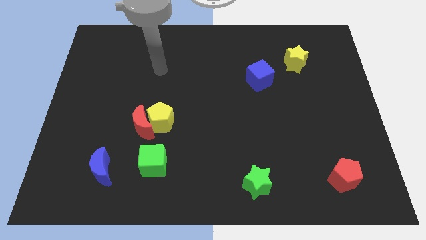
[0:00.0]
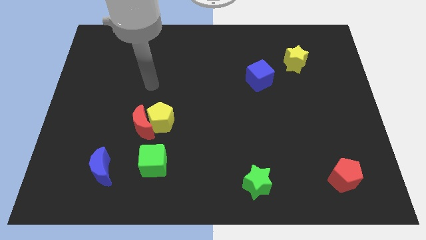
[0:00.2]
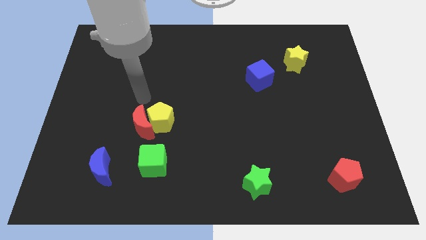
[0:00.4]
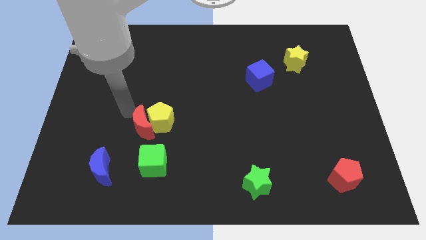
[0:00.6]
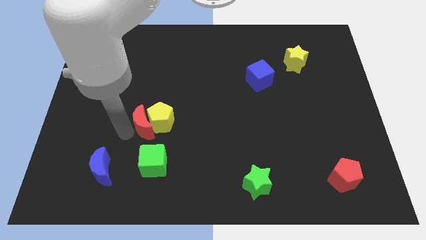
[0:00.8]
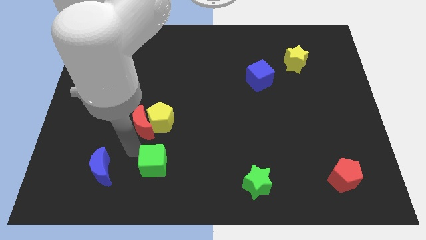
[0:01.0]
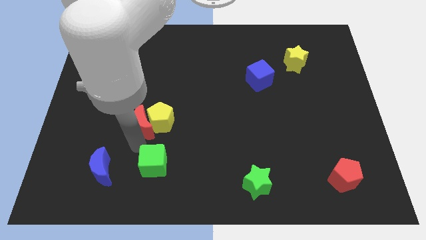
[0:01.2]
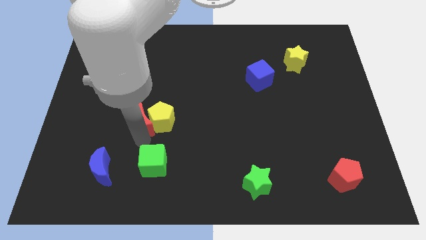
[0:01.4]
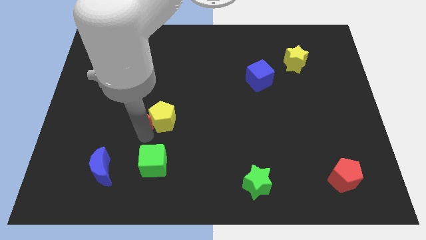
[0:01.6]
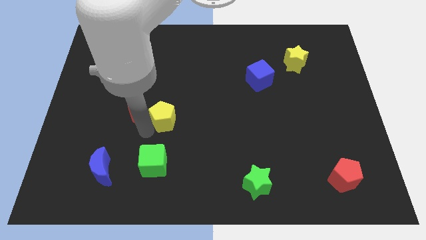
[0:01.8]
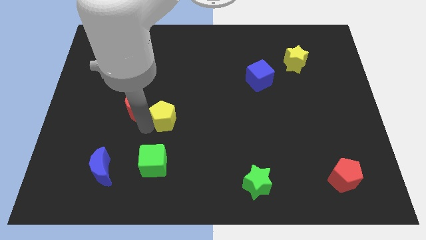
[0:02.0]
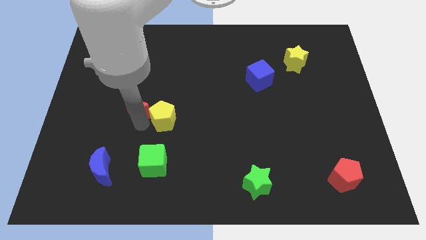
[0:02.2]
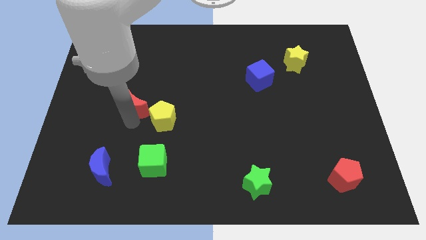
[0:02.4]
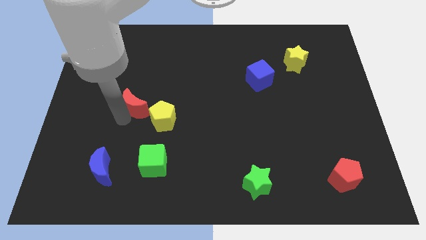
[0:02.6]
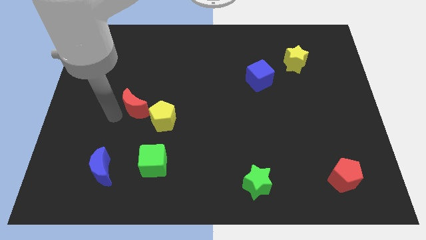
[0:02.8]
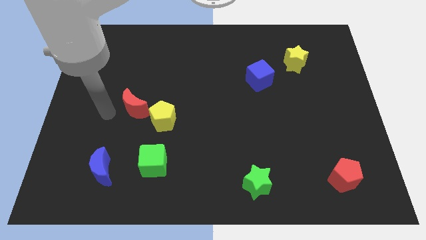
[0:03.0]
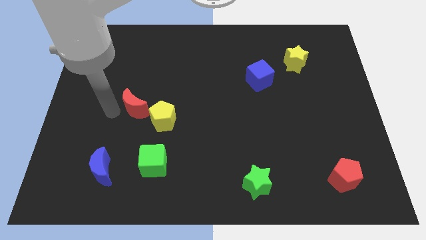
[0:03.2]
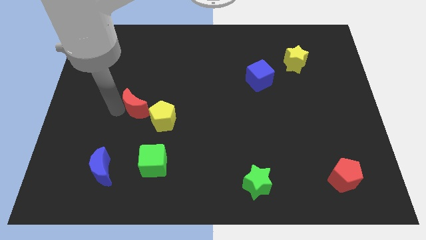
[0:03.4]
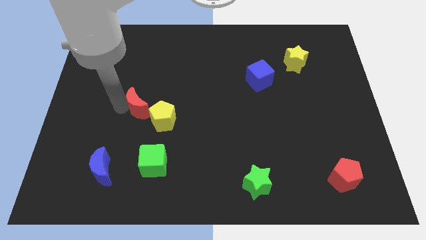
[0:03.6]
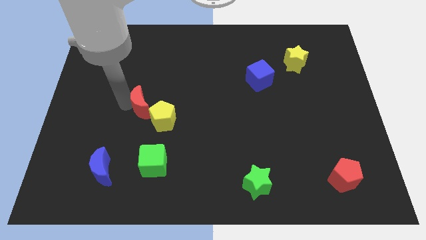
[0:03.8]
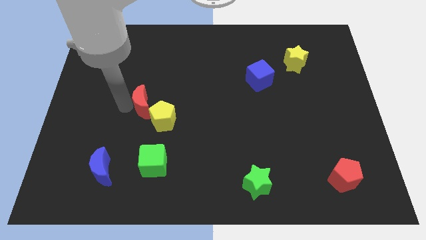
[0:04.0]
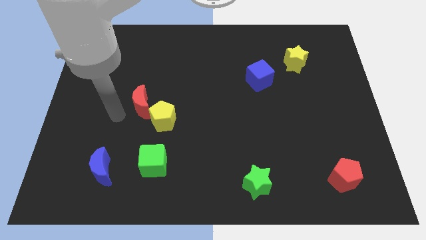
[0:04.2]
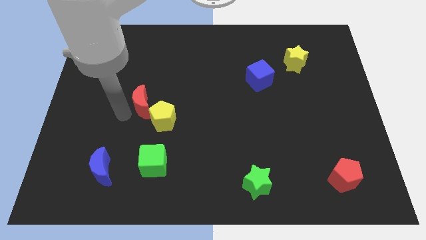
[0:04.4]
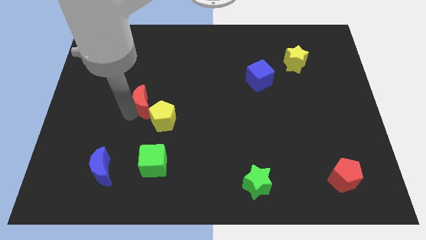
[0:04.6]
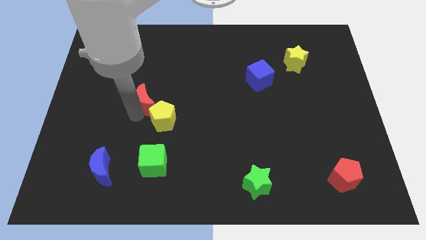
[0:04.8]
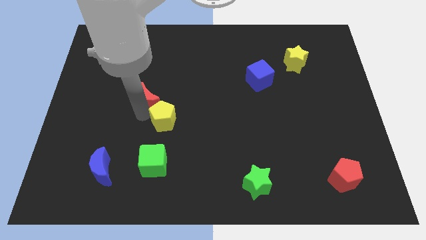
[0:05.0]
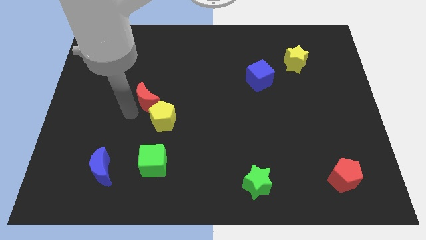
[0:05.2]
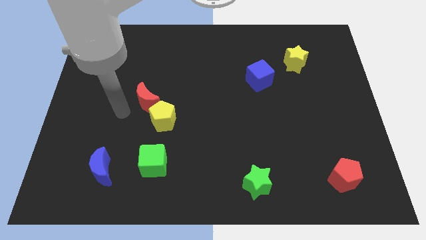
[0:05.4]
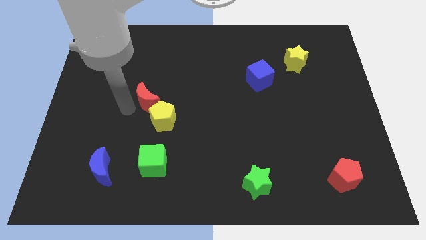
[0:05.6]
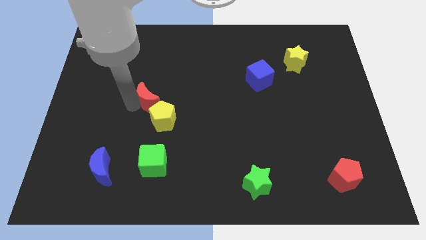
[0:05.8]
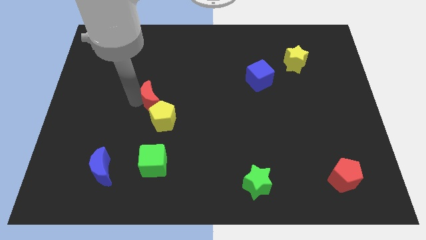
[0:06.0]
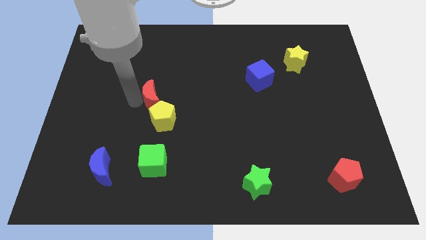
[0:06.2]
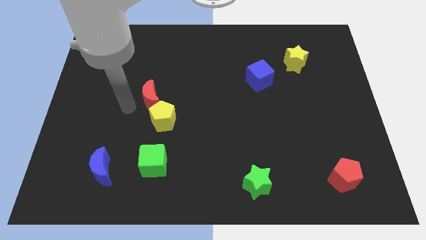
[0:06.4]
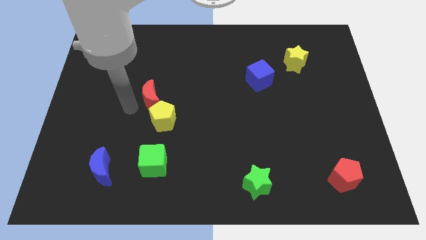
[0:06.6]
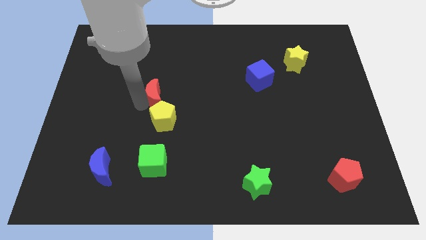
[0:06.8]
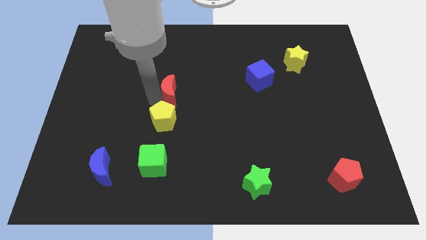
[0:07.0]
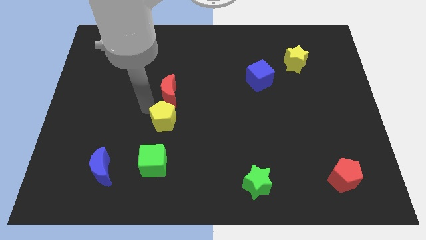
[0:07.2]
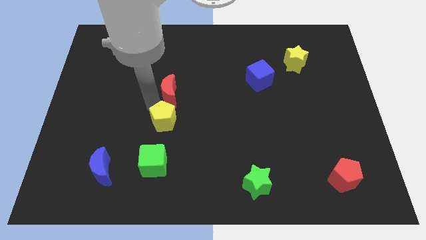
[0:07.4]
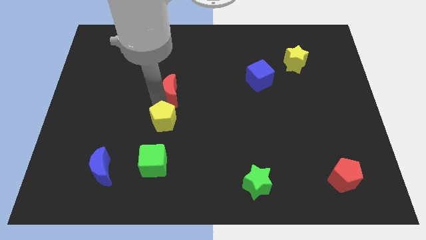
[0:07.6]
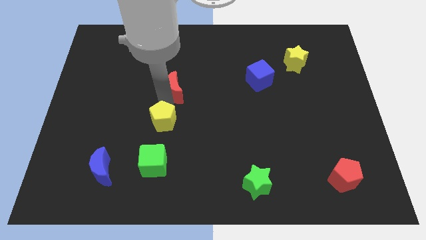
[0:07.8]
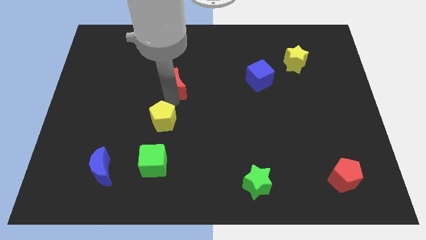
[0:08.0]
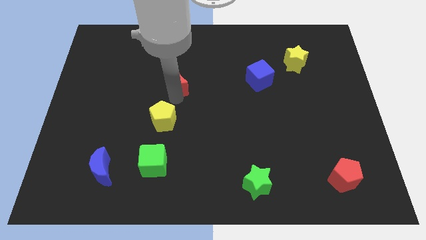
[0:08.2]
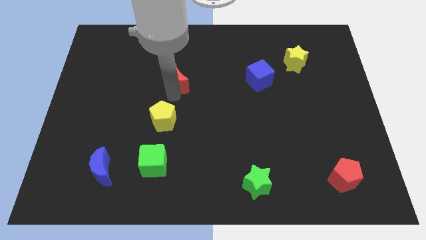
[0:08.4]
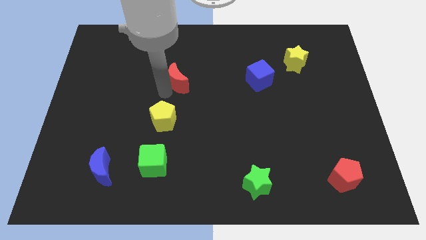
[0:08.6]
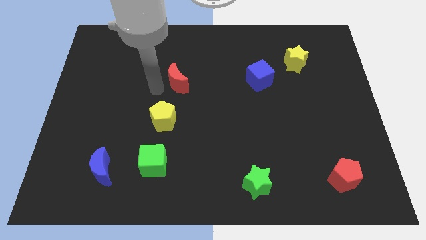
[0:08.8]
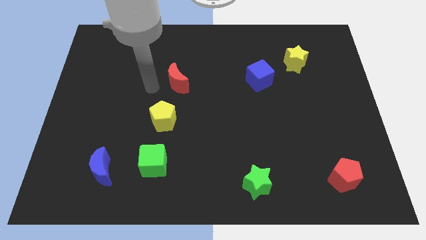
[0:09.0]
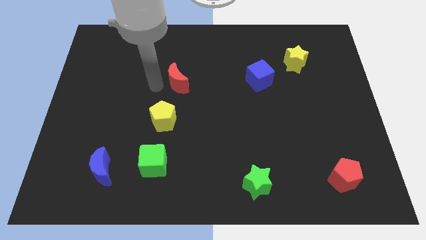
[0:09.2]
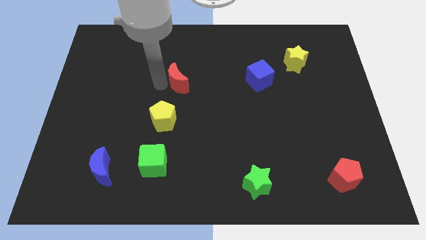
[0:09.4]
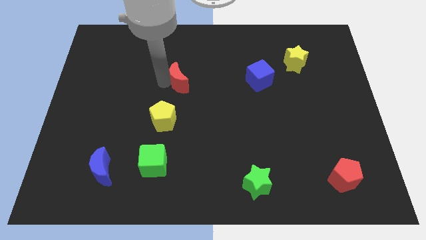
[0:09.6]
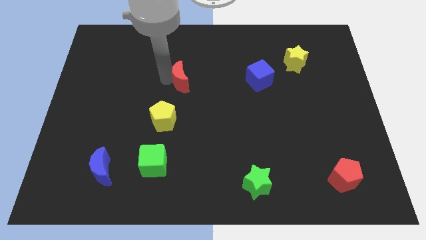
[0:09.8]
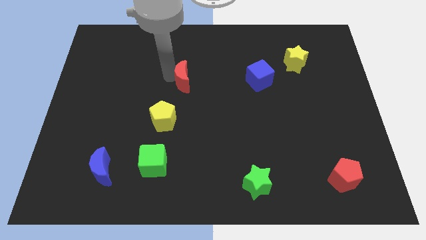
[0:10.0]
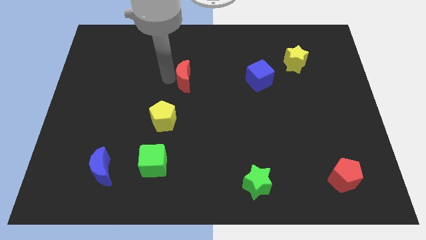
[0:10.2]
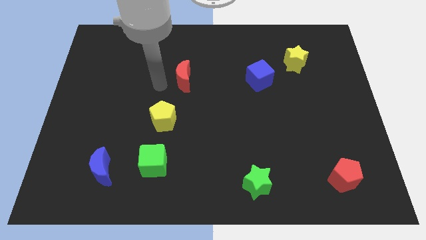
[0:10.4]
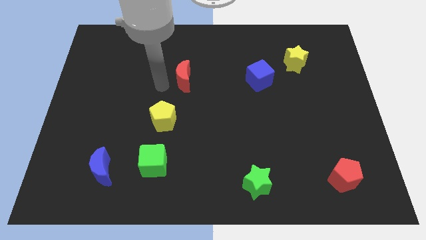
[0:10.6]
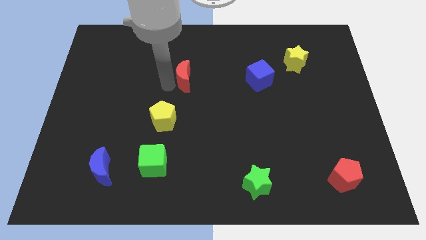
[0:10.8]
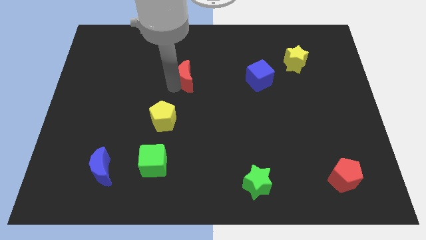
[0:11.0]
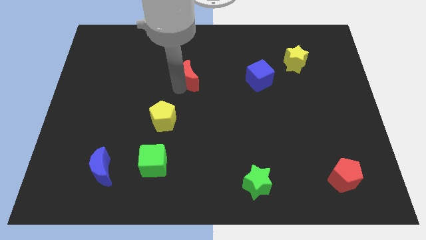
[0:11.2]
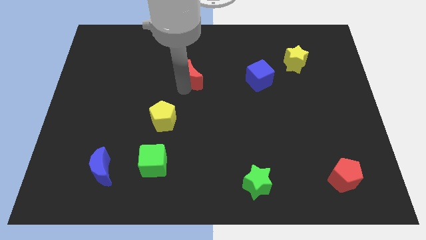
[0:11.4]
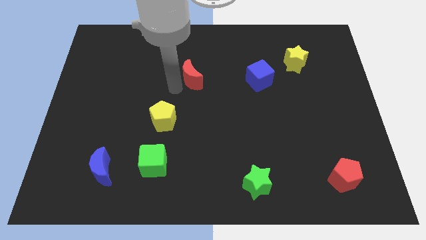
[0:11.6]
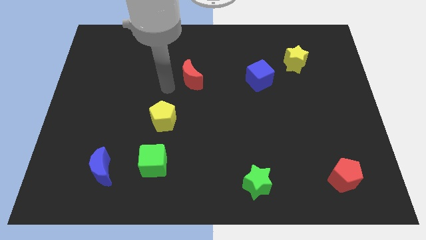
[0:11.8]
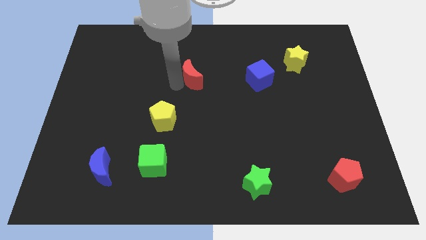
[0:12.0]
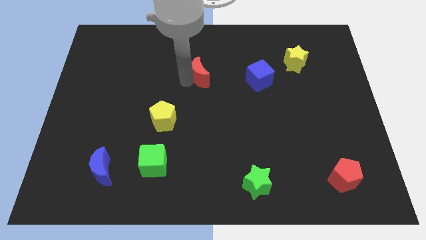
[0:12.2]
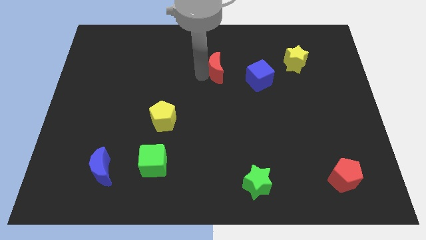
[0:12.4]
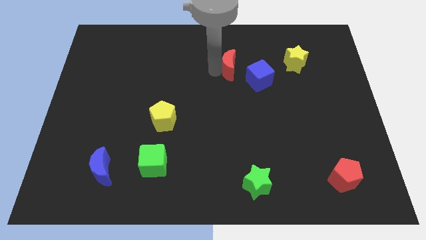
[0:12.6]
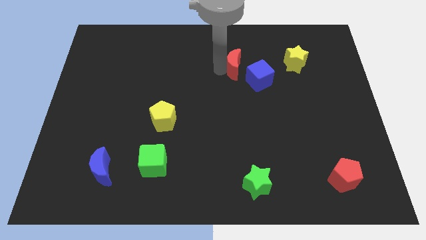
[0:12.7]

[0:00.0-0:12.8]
put the red moon left of the yellow star

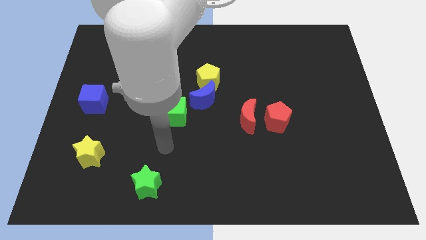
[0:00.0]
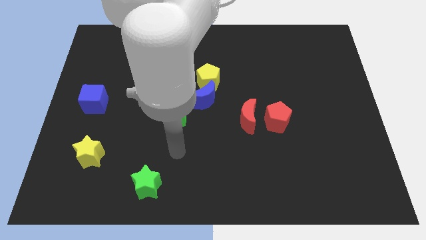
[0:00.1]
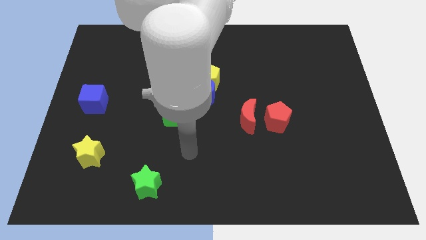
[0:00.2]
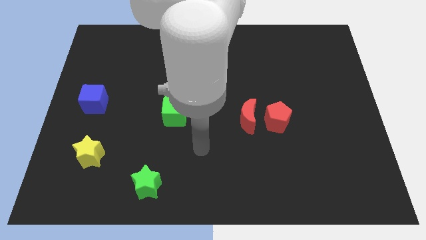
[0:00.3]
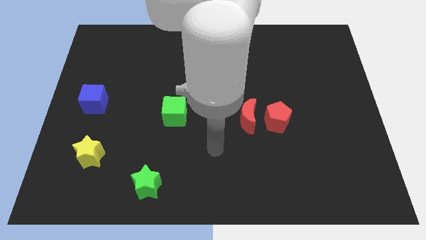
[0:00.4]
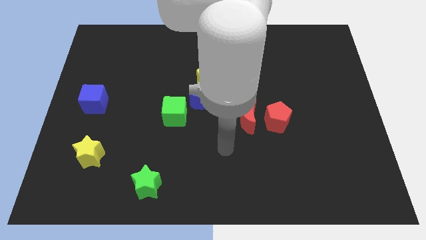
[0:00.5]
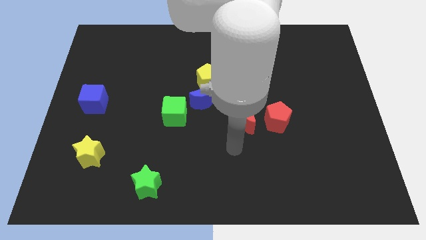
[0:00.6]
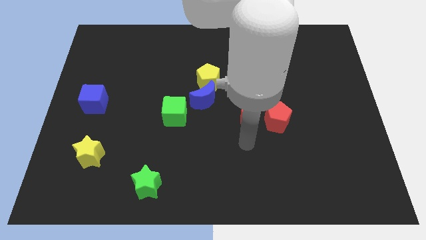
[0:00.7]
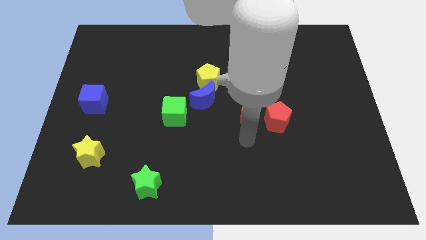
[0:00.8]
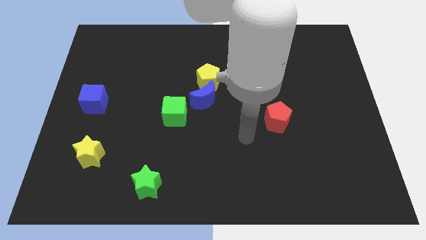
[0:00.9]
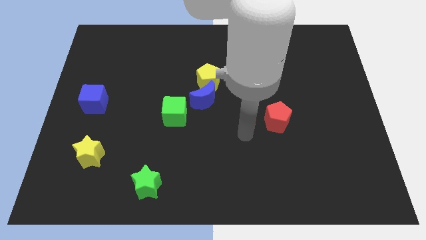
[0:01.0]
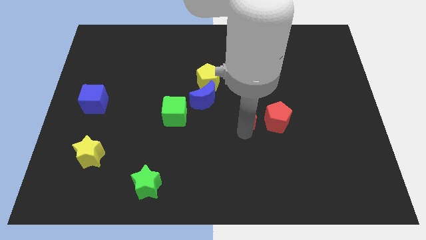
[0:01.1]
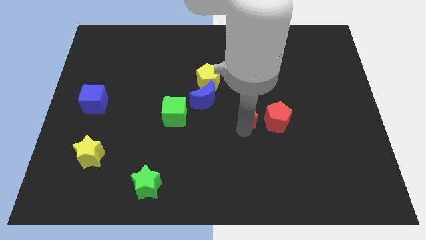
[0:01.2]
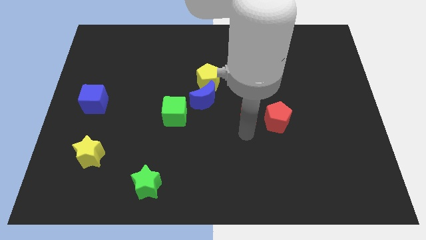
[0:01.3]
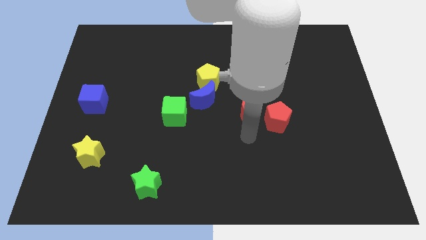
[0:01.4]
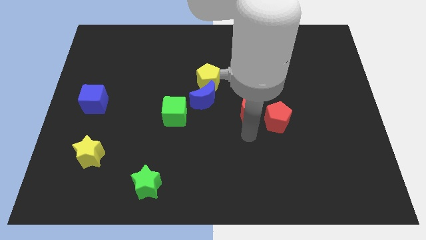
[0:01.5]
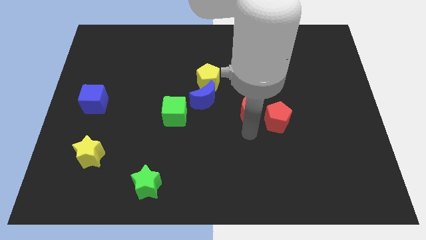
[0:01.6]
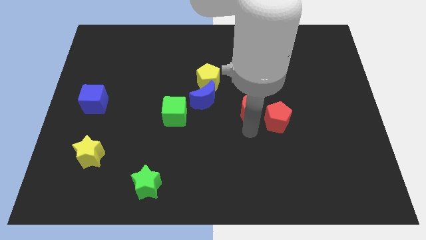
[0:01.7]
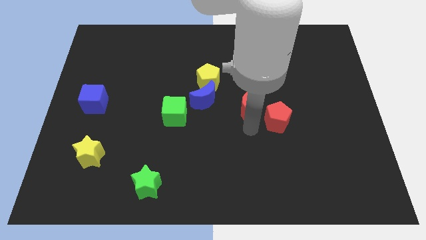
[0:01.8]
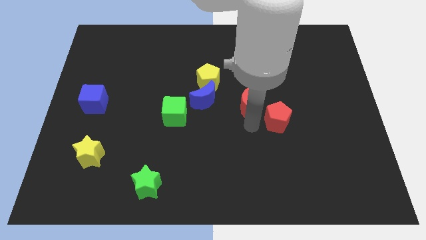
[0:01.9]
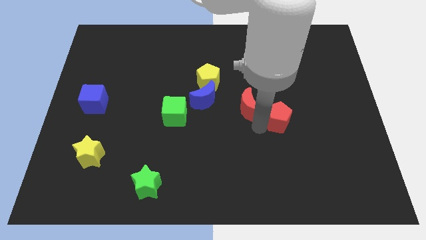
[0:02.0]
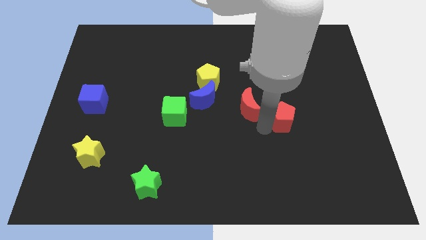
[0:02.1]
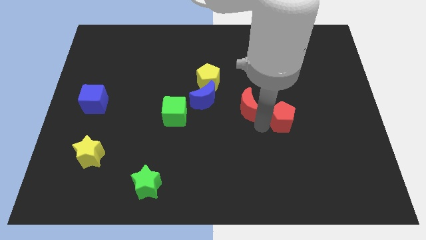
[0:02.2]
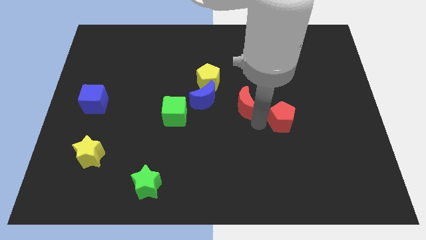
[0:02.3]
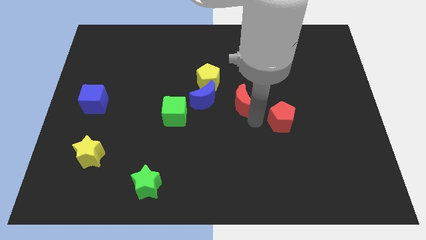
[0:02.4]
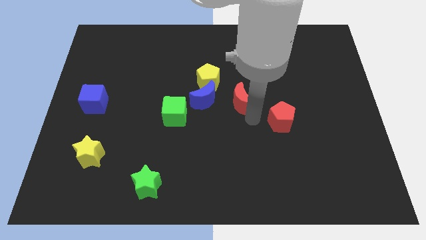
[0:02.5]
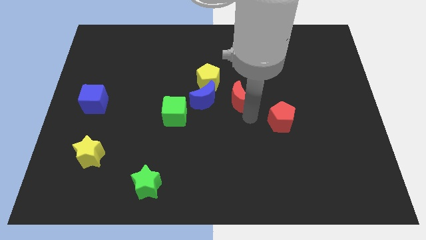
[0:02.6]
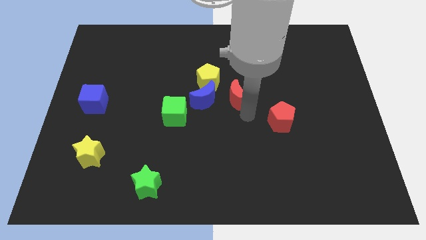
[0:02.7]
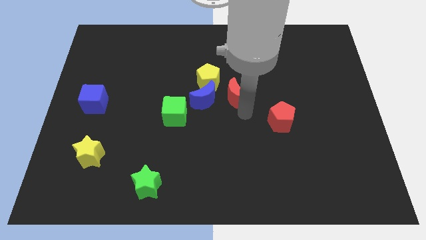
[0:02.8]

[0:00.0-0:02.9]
move the red moon to the top right side of the blue moon
